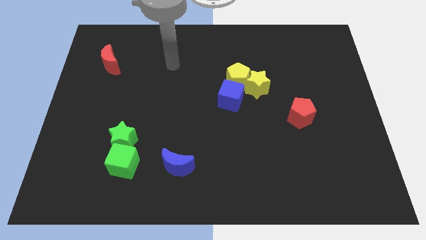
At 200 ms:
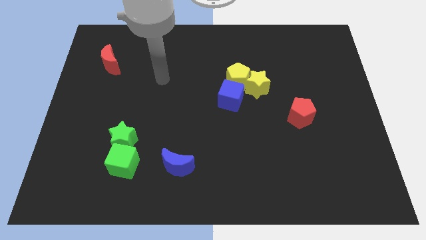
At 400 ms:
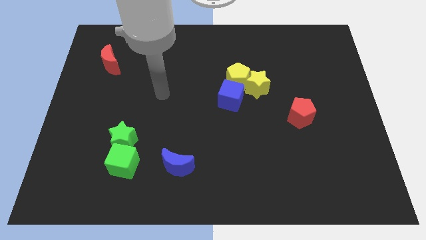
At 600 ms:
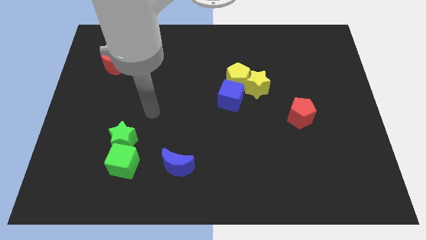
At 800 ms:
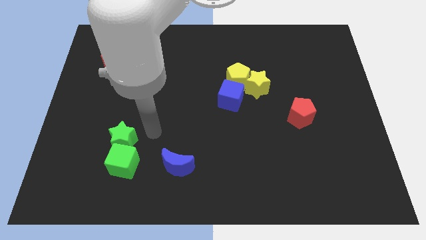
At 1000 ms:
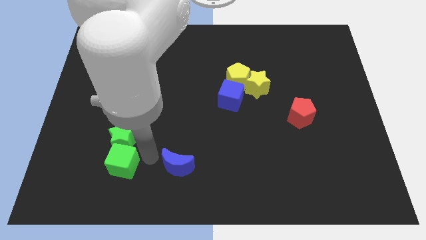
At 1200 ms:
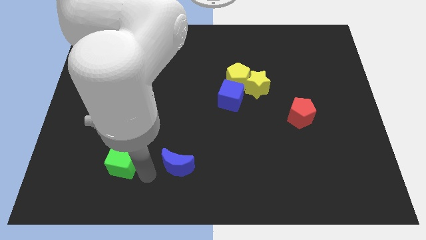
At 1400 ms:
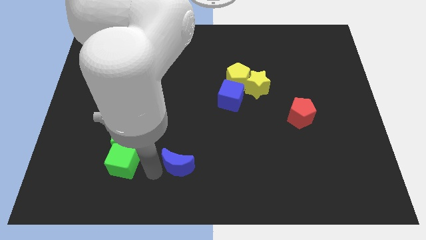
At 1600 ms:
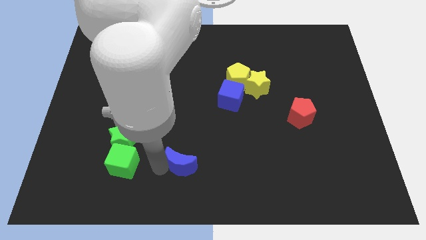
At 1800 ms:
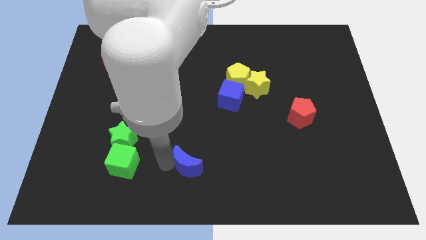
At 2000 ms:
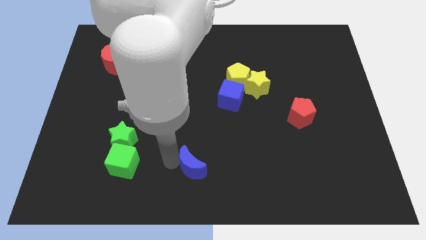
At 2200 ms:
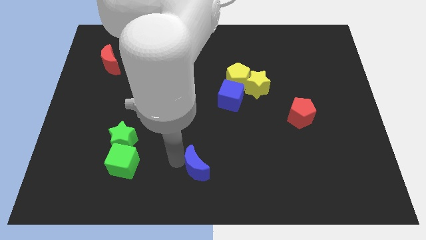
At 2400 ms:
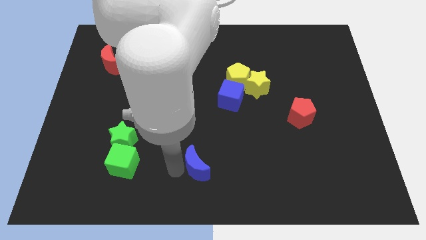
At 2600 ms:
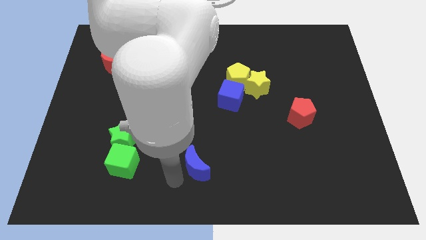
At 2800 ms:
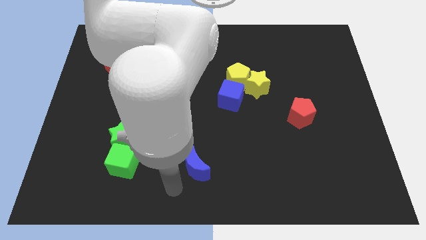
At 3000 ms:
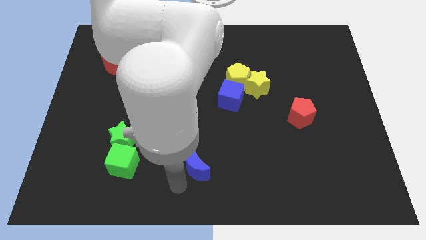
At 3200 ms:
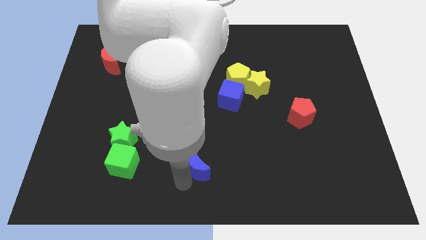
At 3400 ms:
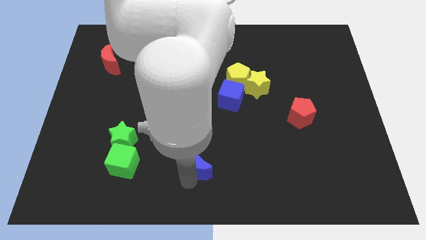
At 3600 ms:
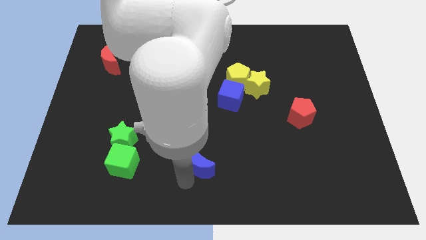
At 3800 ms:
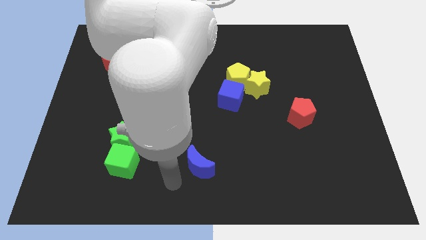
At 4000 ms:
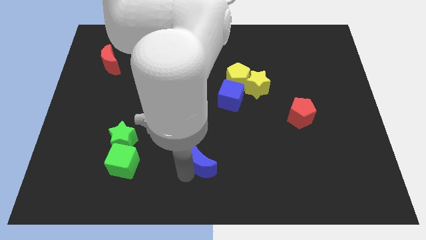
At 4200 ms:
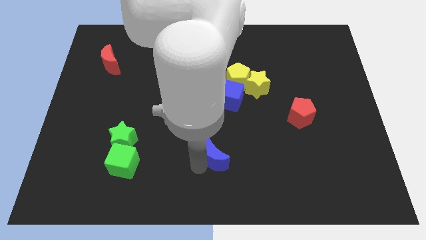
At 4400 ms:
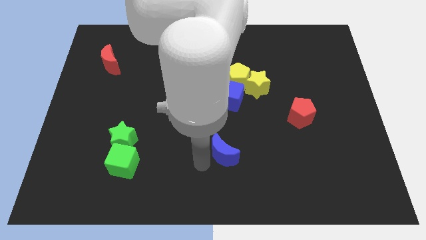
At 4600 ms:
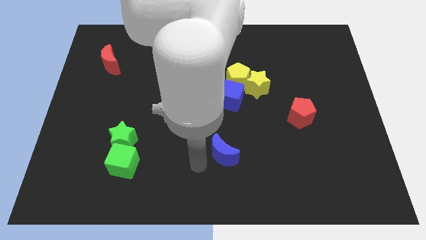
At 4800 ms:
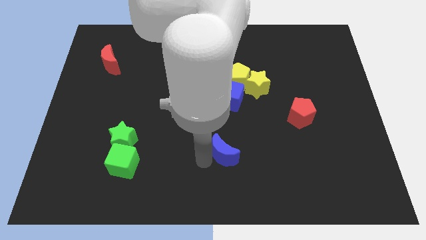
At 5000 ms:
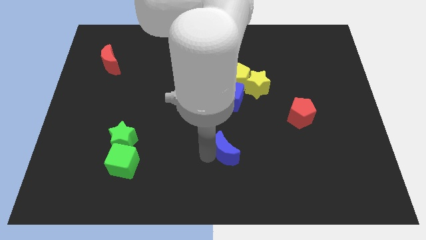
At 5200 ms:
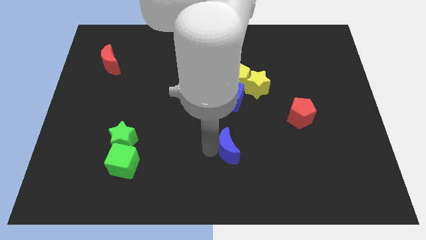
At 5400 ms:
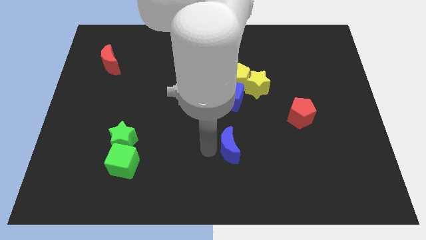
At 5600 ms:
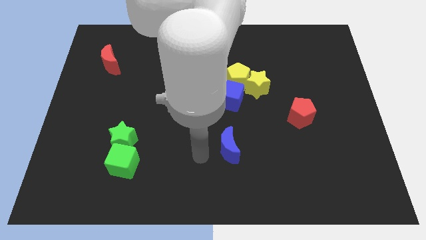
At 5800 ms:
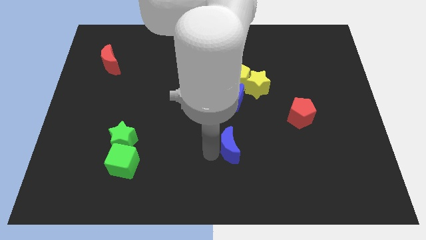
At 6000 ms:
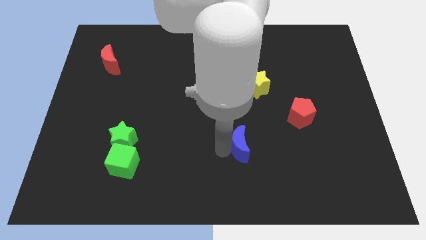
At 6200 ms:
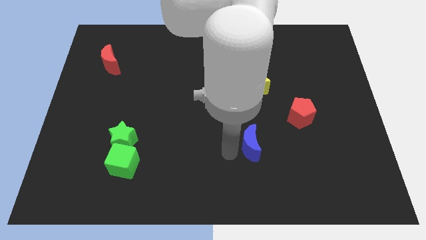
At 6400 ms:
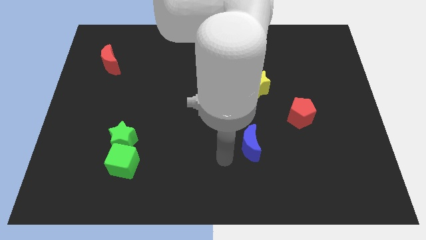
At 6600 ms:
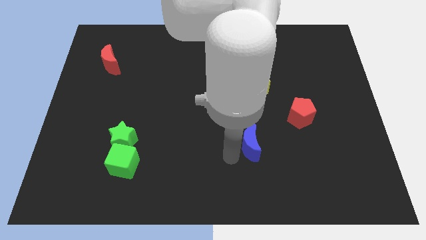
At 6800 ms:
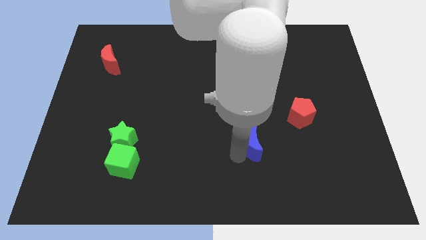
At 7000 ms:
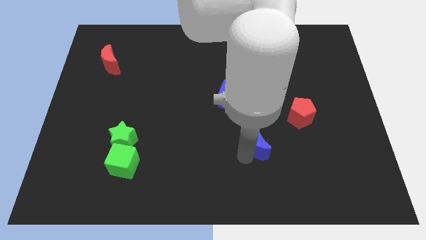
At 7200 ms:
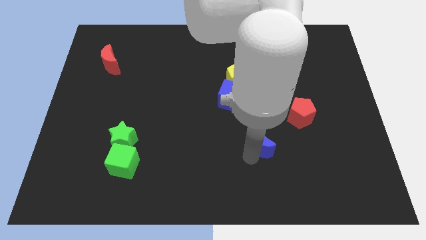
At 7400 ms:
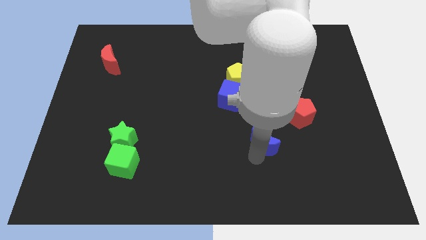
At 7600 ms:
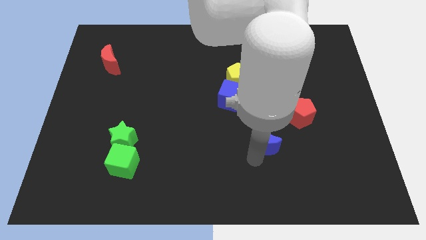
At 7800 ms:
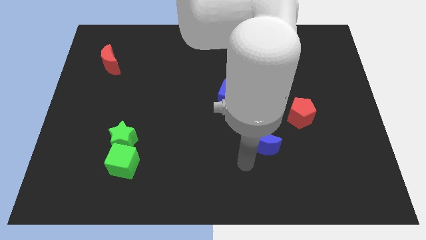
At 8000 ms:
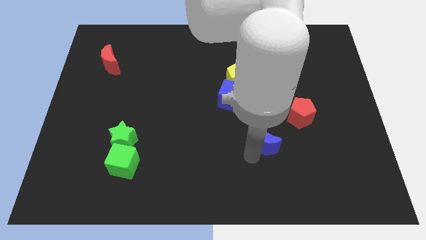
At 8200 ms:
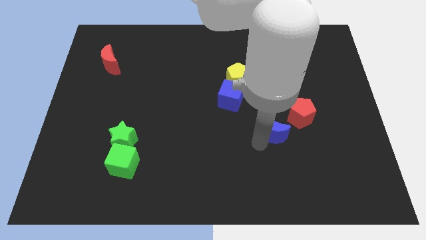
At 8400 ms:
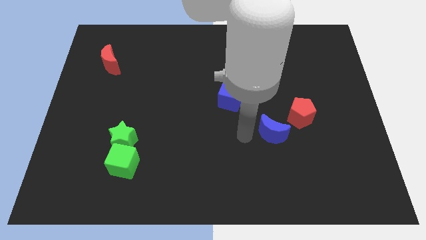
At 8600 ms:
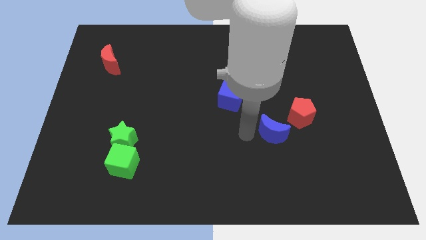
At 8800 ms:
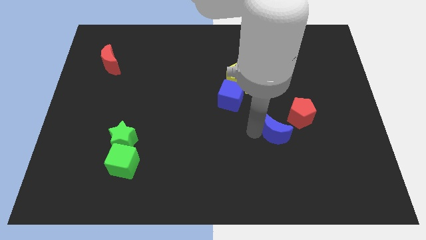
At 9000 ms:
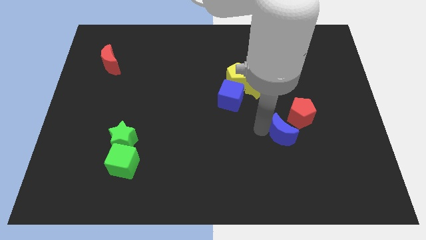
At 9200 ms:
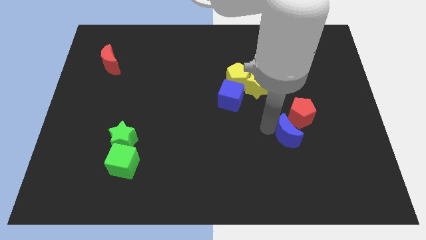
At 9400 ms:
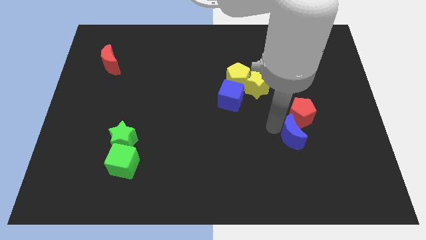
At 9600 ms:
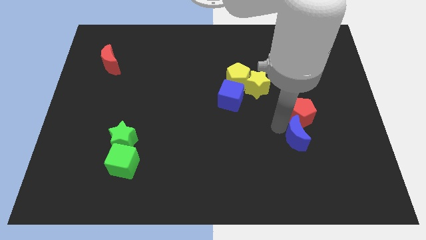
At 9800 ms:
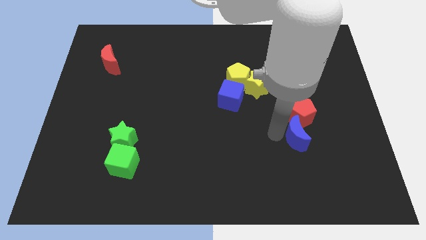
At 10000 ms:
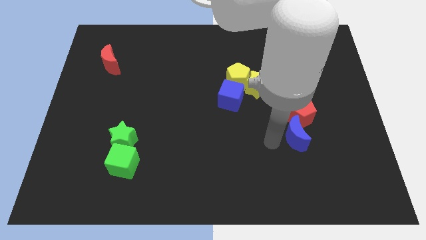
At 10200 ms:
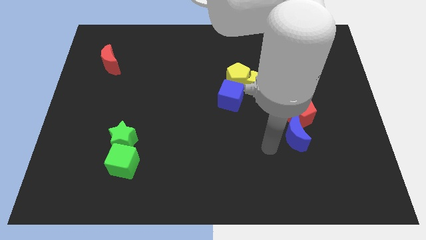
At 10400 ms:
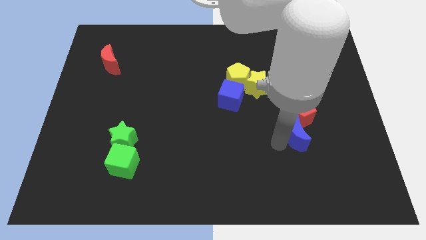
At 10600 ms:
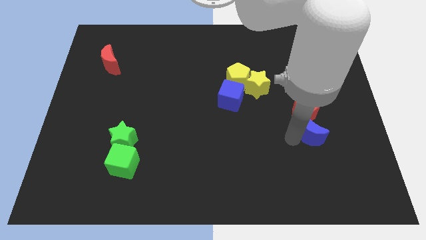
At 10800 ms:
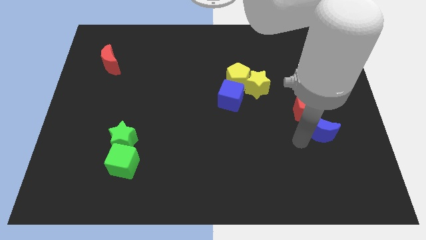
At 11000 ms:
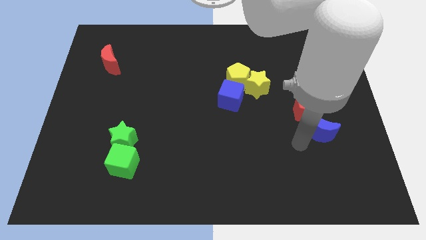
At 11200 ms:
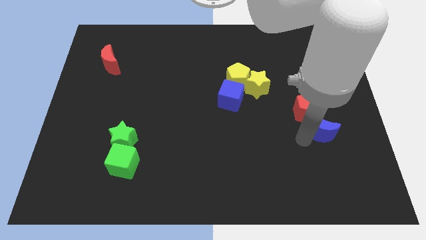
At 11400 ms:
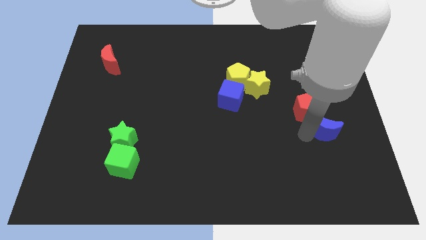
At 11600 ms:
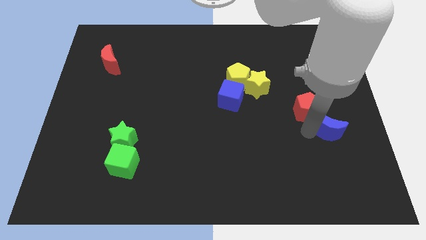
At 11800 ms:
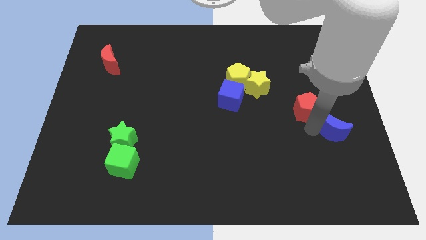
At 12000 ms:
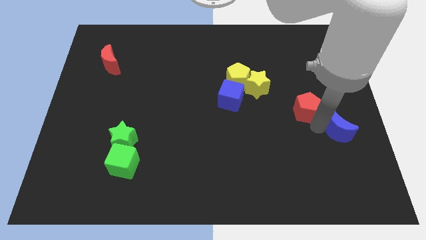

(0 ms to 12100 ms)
push the blue moon to the right side of the board
